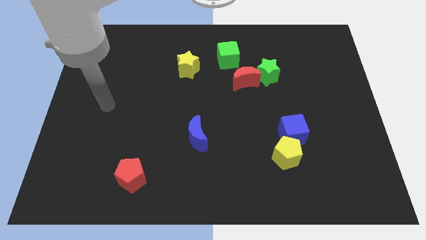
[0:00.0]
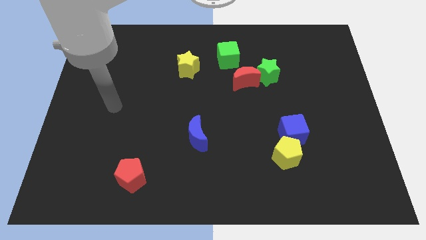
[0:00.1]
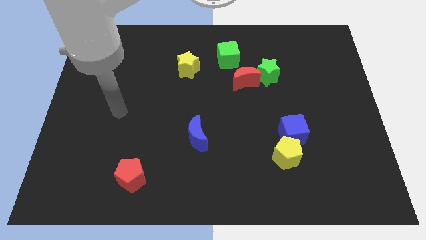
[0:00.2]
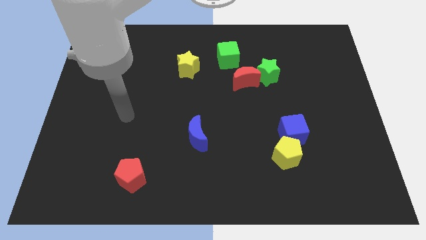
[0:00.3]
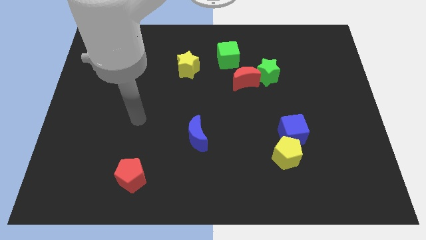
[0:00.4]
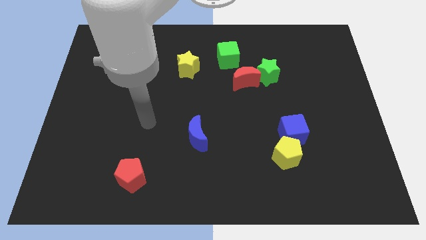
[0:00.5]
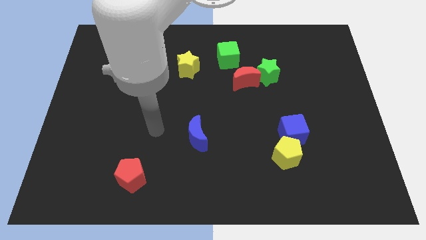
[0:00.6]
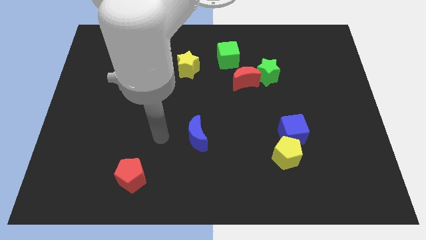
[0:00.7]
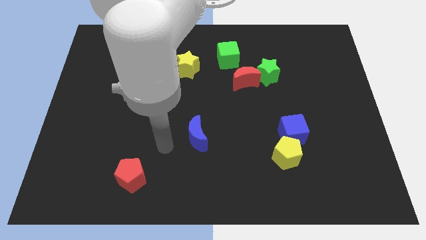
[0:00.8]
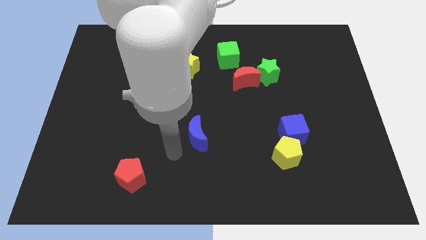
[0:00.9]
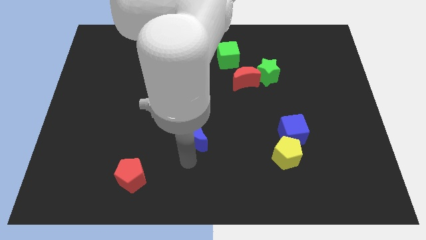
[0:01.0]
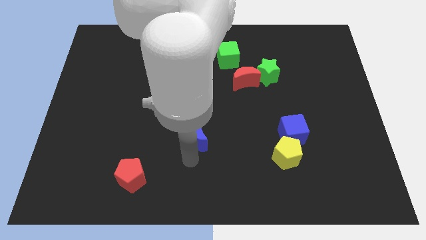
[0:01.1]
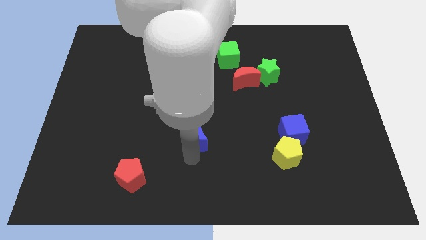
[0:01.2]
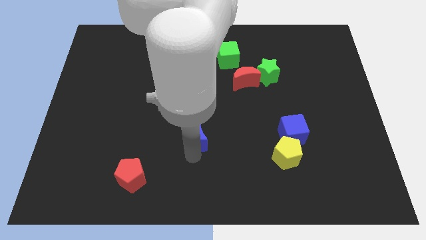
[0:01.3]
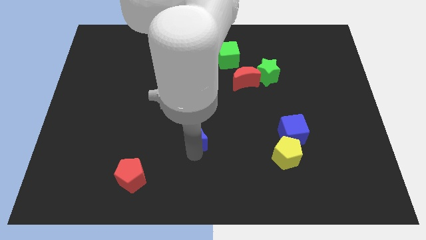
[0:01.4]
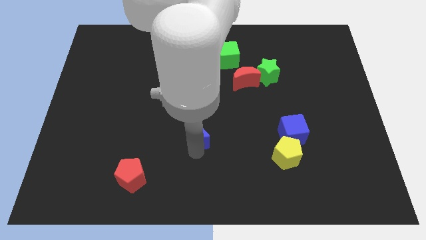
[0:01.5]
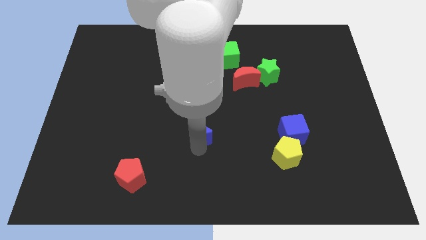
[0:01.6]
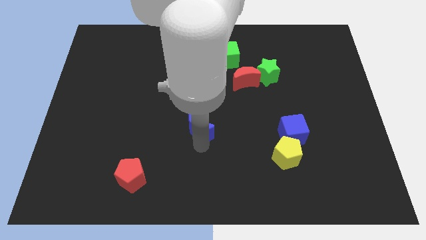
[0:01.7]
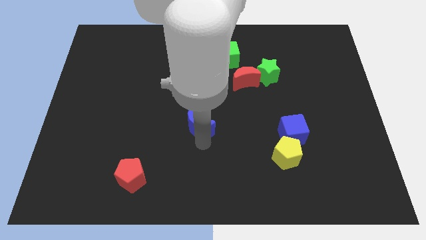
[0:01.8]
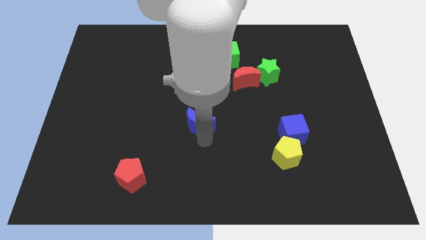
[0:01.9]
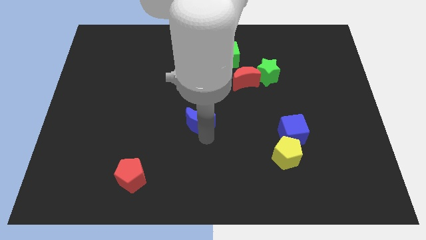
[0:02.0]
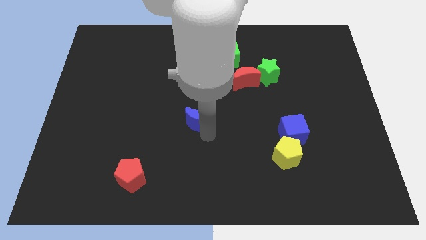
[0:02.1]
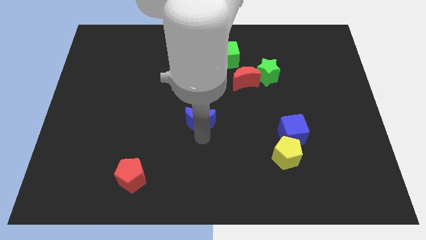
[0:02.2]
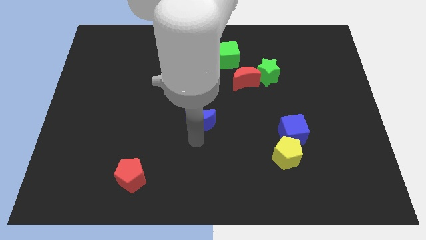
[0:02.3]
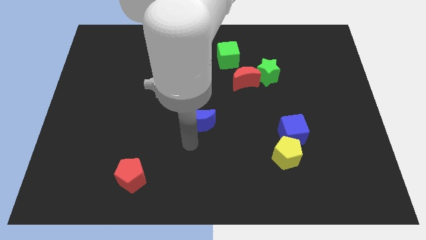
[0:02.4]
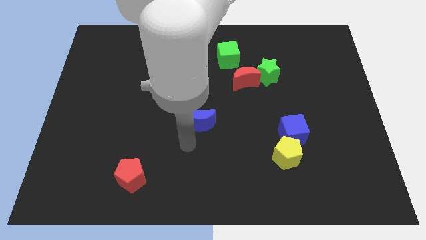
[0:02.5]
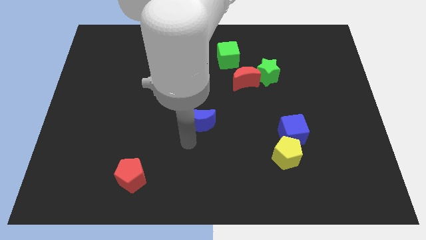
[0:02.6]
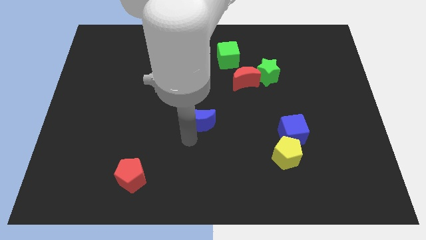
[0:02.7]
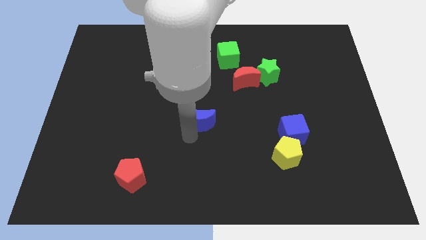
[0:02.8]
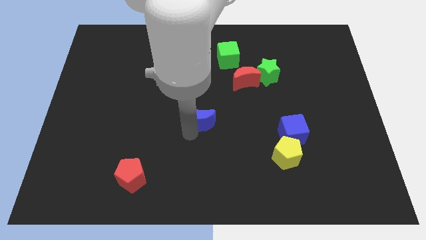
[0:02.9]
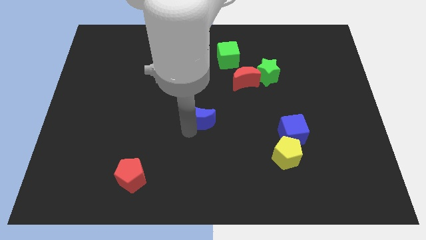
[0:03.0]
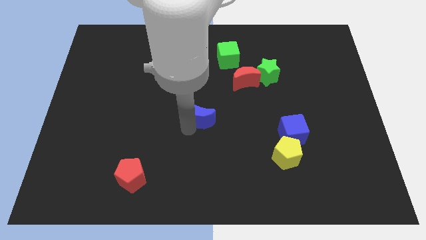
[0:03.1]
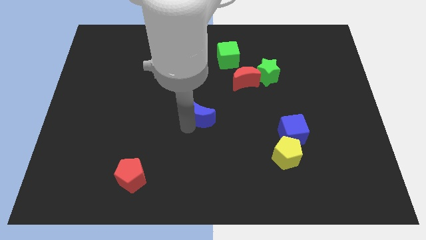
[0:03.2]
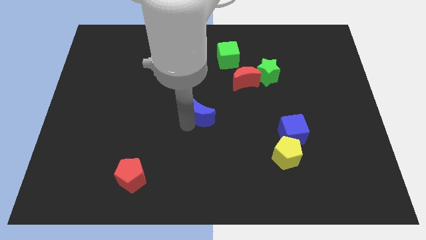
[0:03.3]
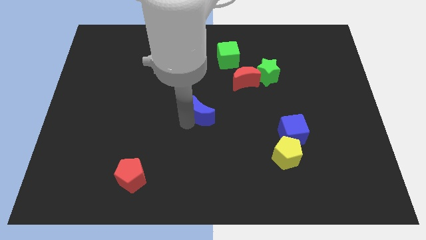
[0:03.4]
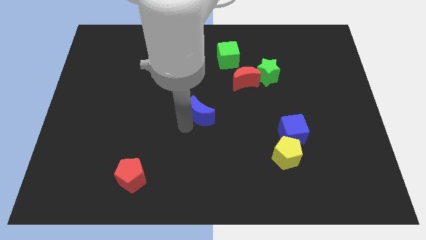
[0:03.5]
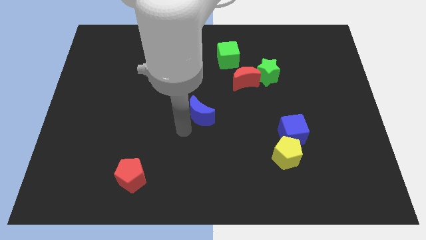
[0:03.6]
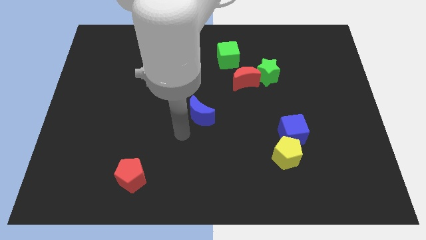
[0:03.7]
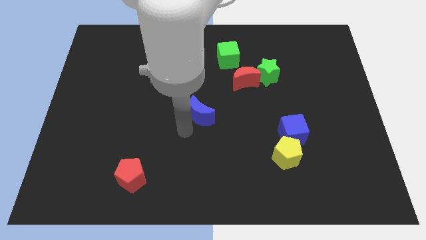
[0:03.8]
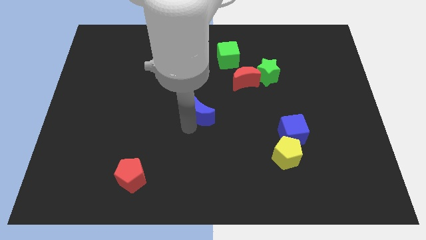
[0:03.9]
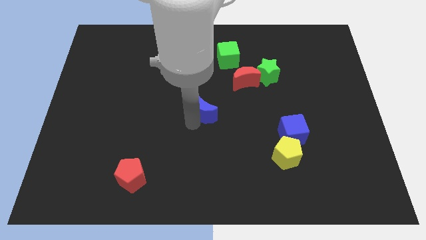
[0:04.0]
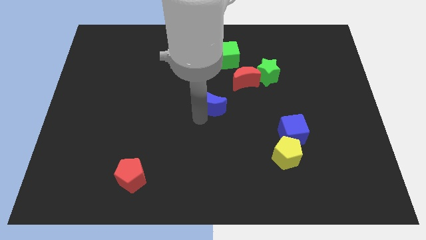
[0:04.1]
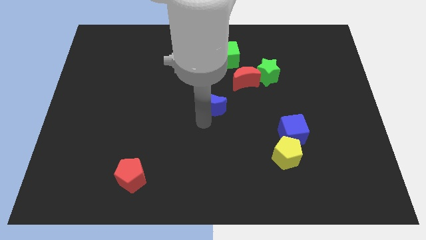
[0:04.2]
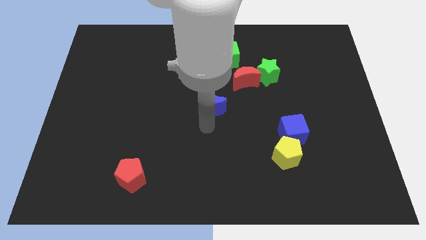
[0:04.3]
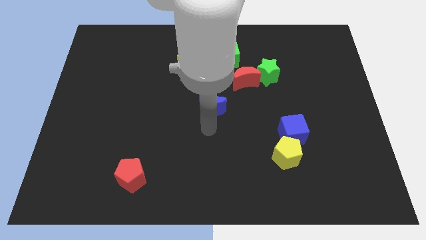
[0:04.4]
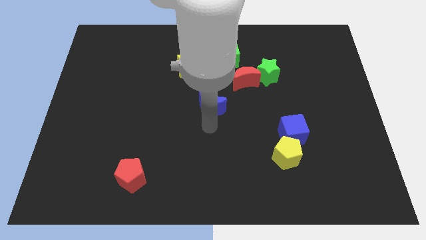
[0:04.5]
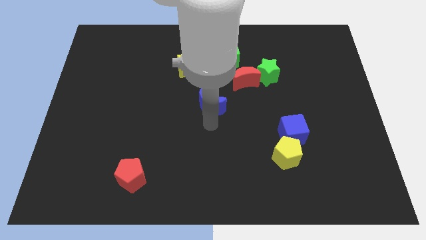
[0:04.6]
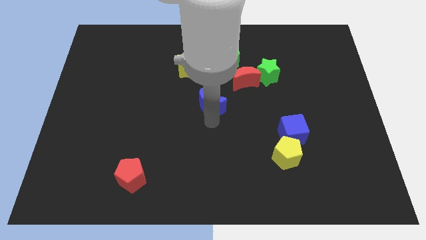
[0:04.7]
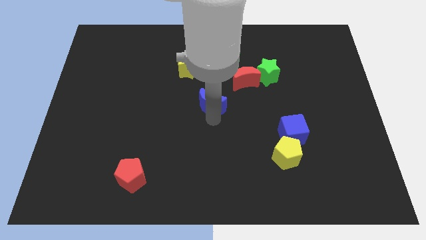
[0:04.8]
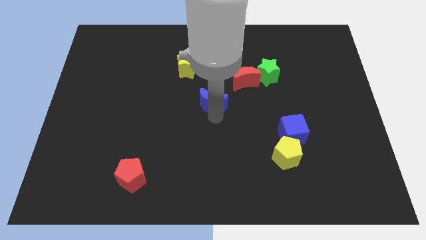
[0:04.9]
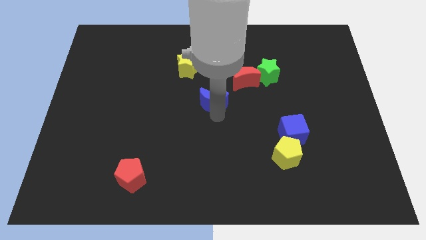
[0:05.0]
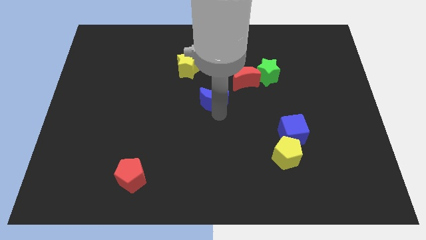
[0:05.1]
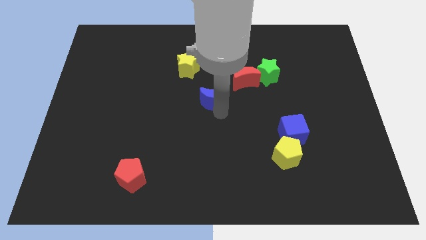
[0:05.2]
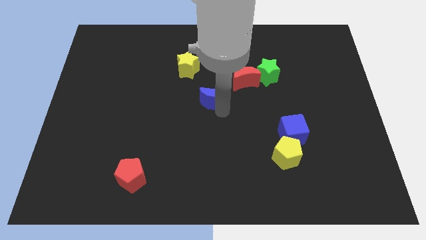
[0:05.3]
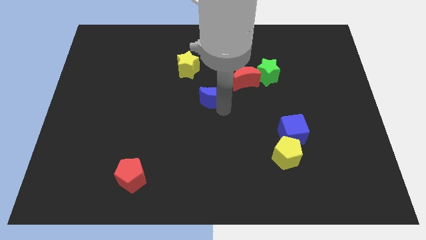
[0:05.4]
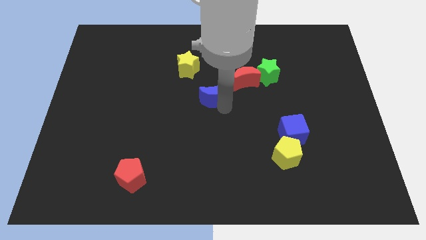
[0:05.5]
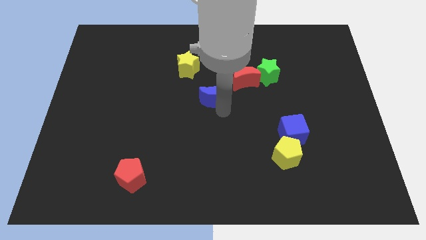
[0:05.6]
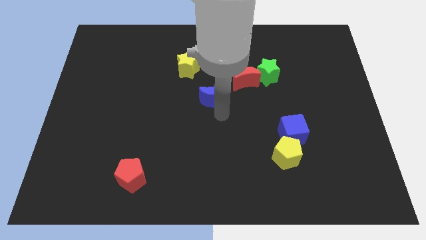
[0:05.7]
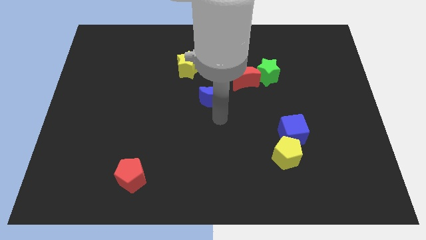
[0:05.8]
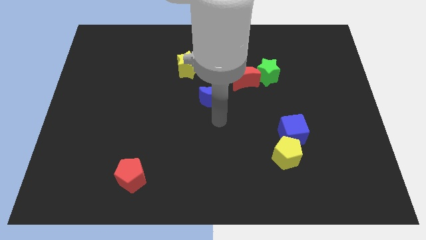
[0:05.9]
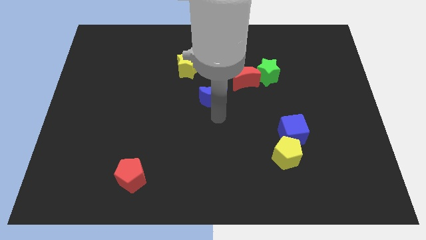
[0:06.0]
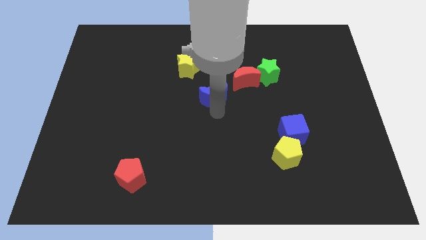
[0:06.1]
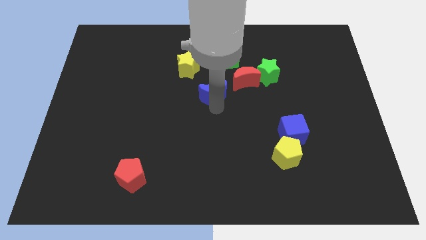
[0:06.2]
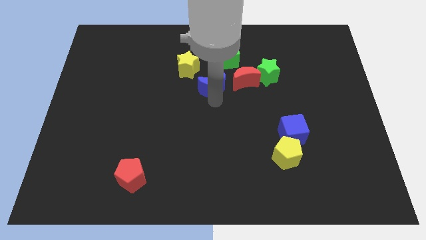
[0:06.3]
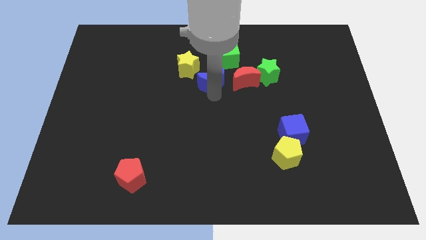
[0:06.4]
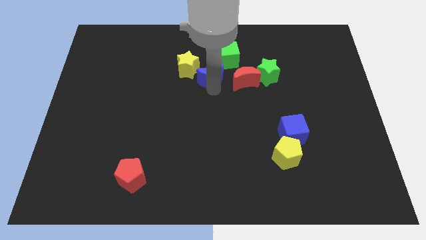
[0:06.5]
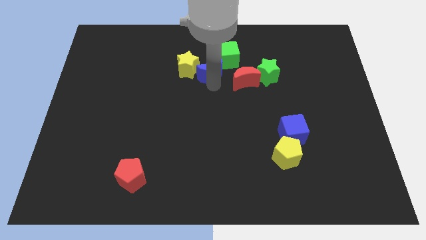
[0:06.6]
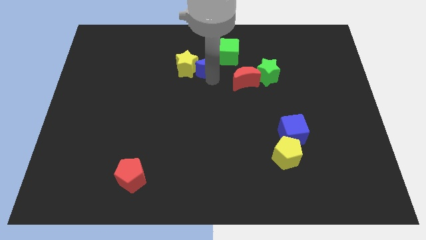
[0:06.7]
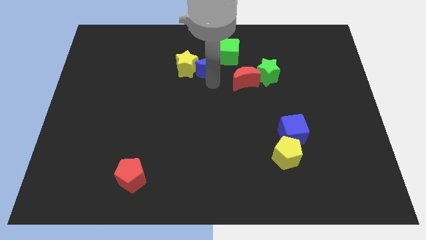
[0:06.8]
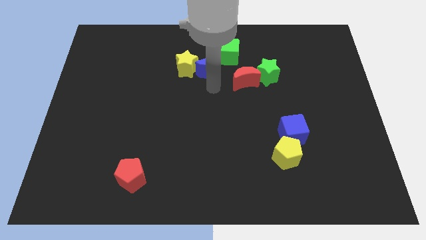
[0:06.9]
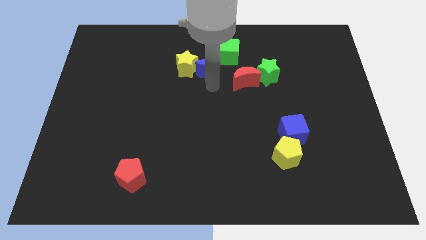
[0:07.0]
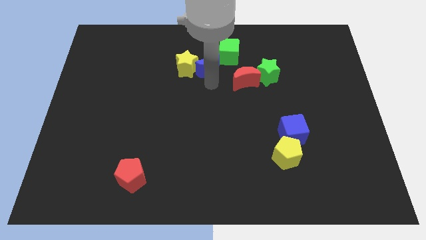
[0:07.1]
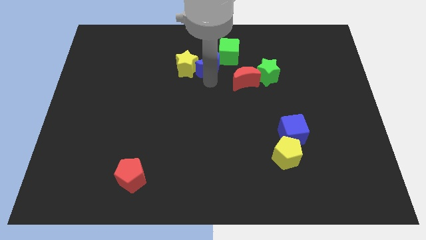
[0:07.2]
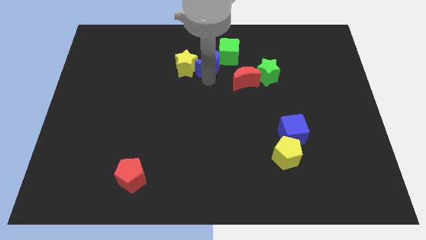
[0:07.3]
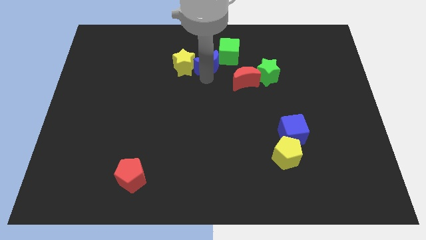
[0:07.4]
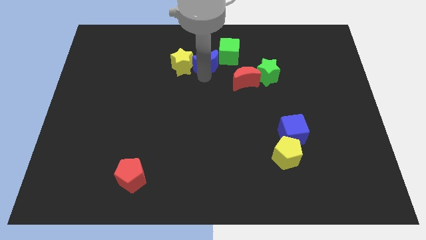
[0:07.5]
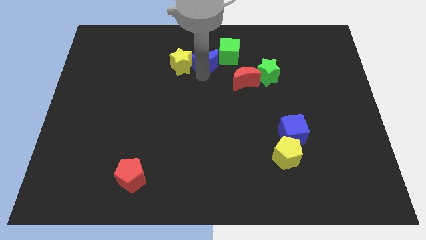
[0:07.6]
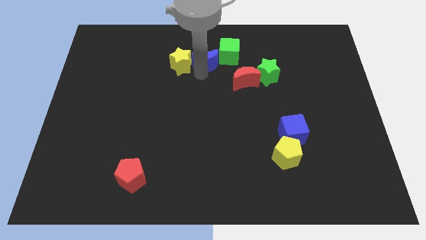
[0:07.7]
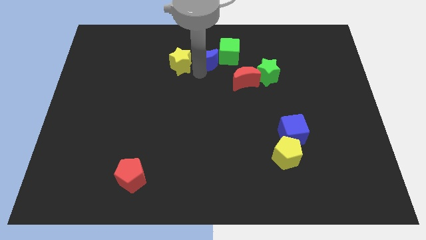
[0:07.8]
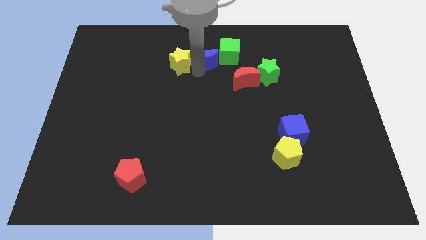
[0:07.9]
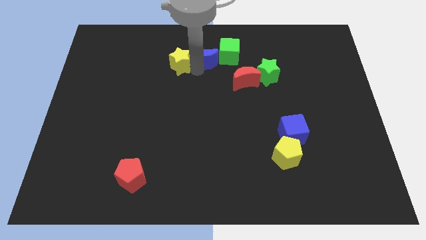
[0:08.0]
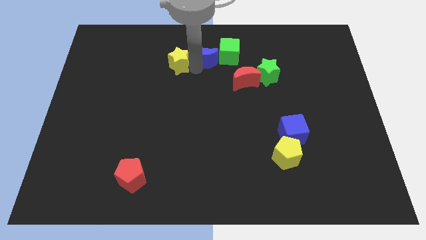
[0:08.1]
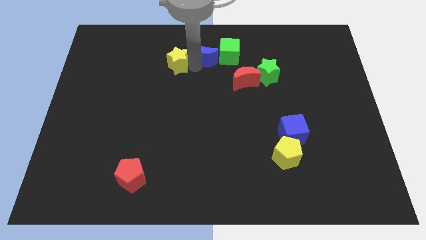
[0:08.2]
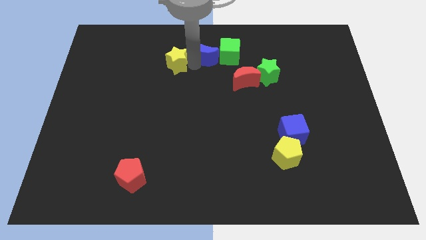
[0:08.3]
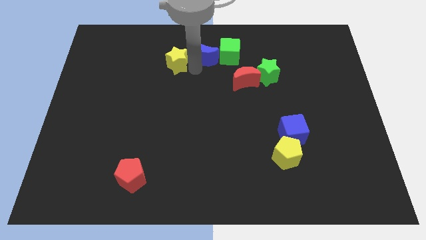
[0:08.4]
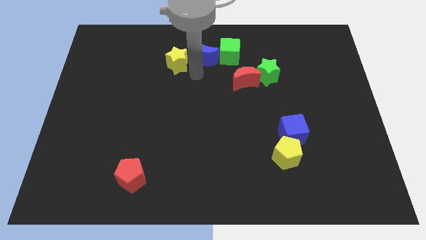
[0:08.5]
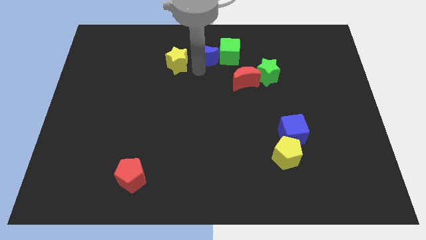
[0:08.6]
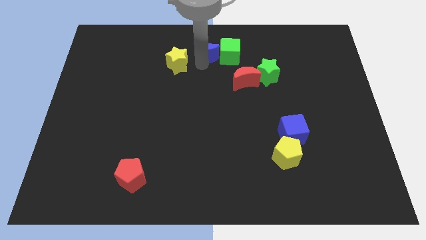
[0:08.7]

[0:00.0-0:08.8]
put the blue moon to the towards your base
